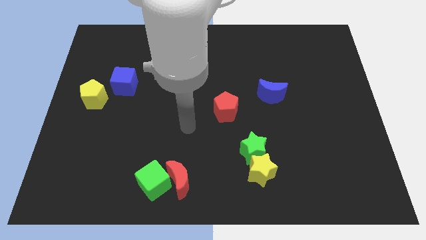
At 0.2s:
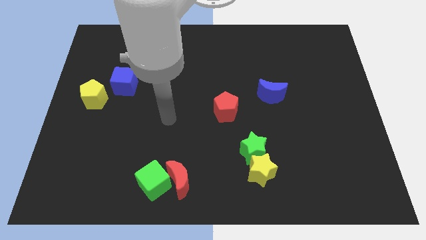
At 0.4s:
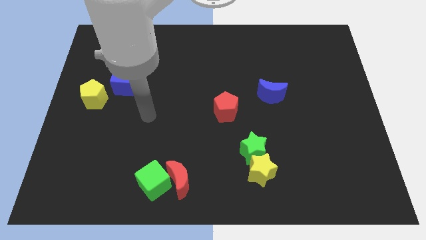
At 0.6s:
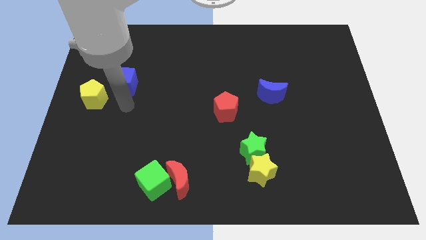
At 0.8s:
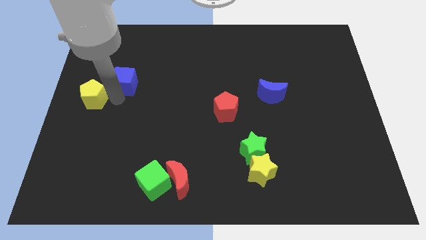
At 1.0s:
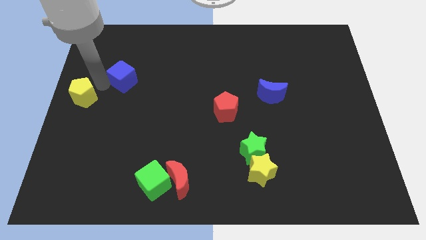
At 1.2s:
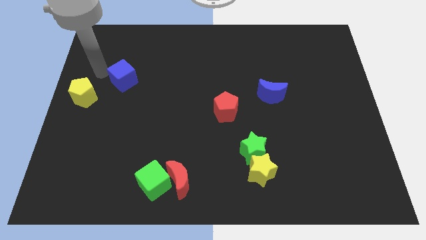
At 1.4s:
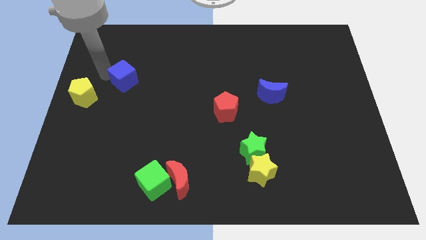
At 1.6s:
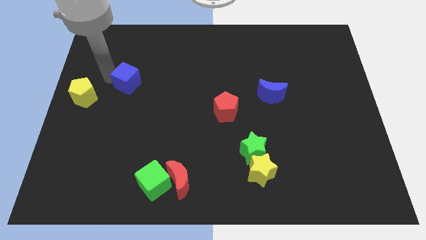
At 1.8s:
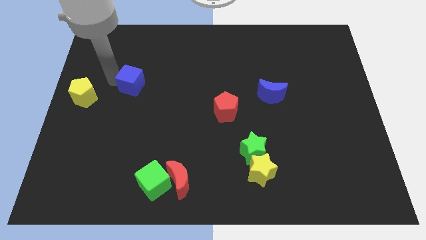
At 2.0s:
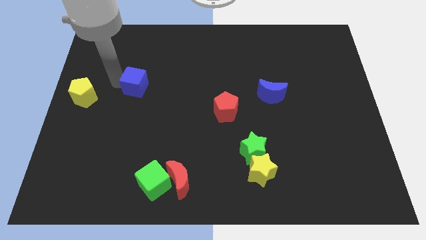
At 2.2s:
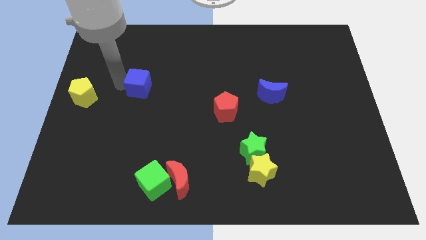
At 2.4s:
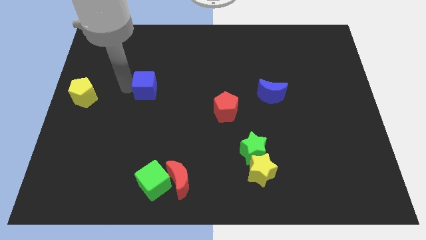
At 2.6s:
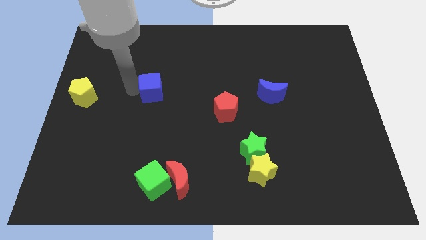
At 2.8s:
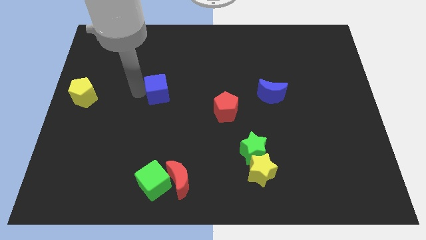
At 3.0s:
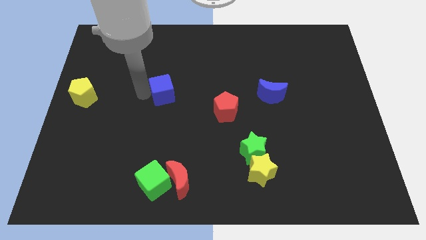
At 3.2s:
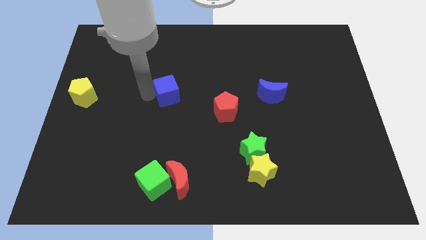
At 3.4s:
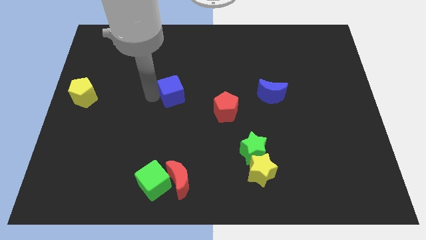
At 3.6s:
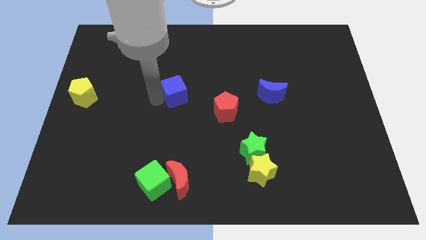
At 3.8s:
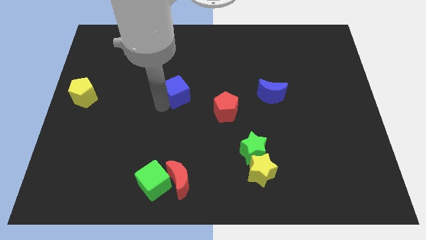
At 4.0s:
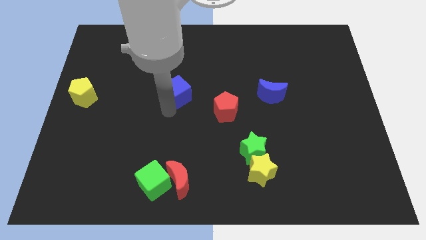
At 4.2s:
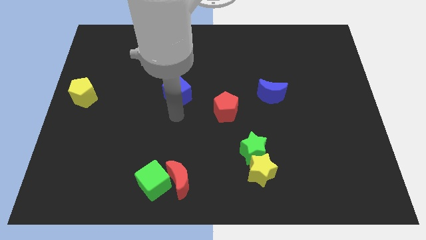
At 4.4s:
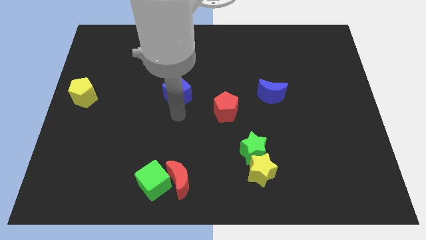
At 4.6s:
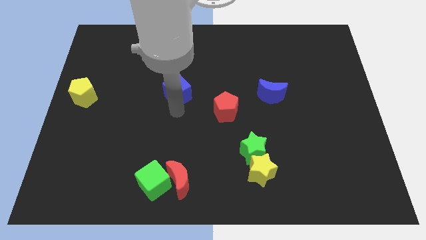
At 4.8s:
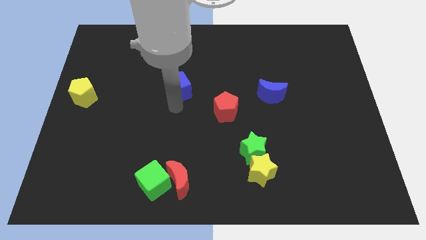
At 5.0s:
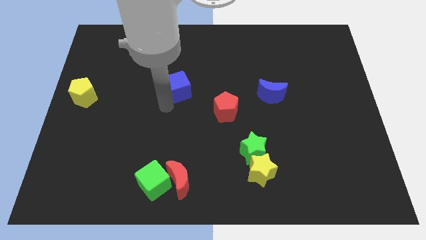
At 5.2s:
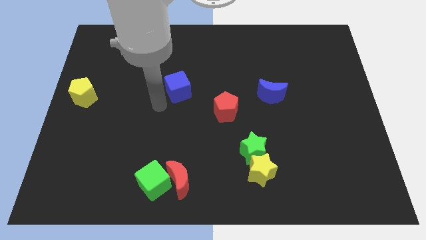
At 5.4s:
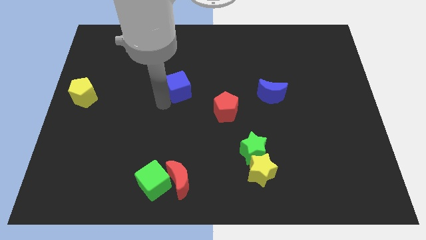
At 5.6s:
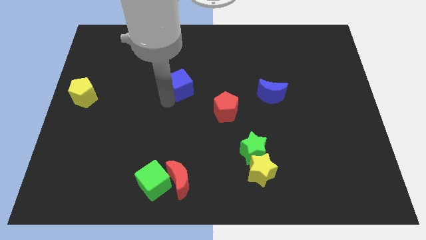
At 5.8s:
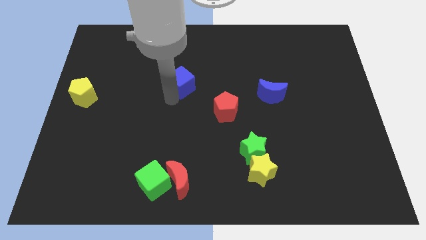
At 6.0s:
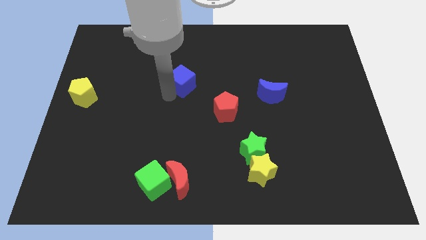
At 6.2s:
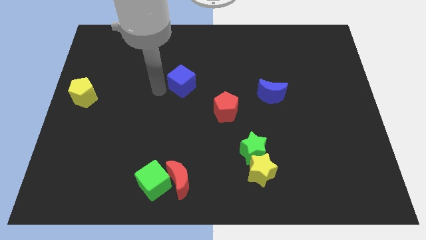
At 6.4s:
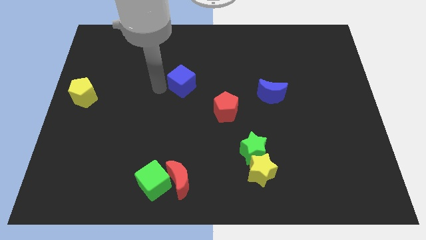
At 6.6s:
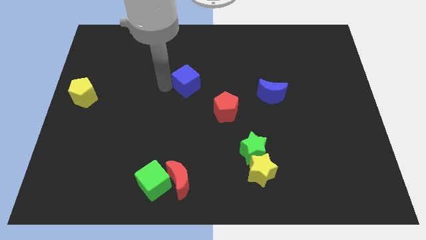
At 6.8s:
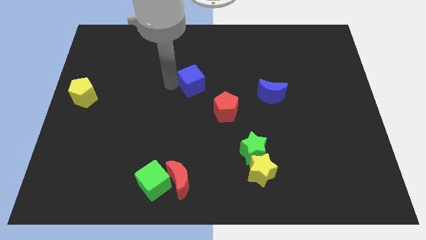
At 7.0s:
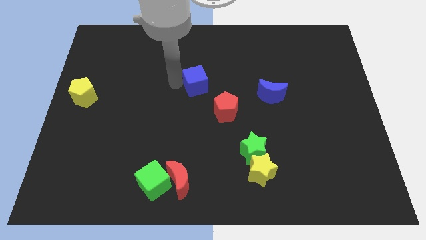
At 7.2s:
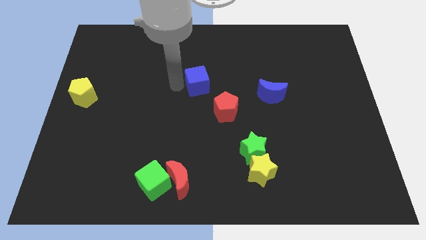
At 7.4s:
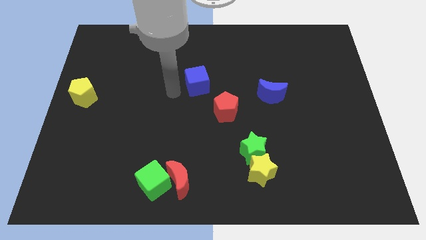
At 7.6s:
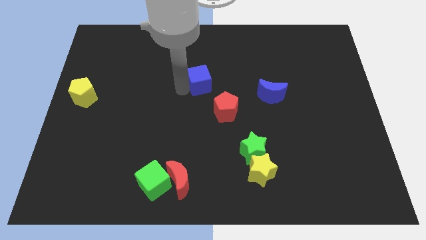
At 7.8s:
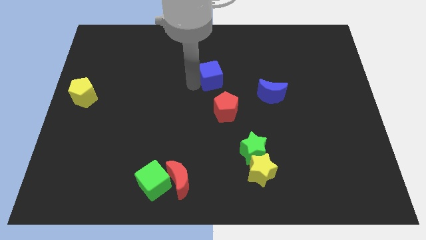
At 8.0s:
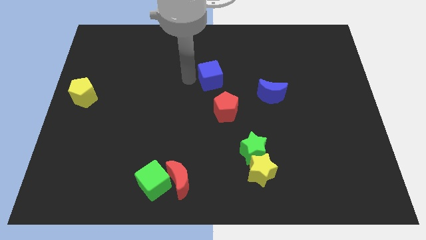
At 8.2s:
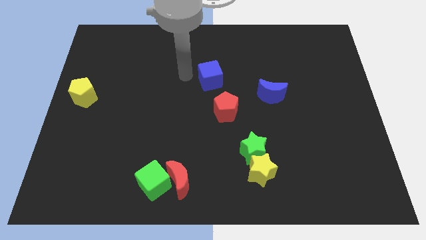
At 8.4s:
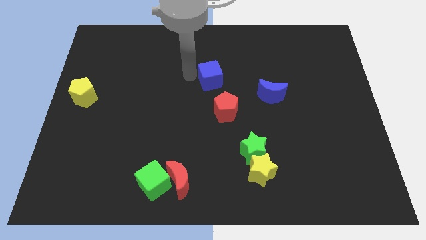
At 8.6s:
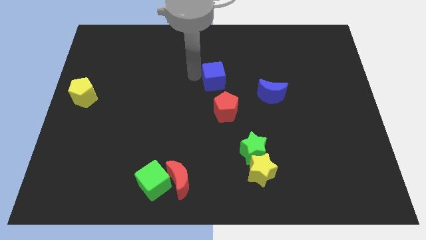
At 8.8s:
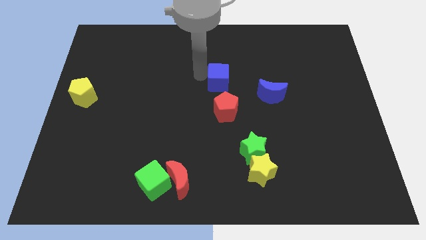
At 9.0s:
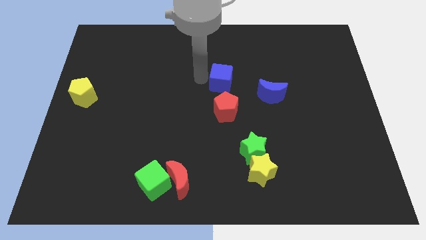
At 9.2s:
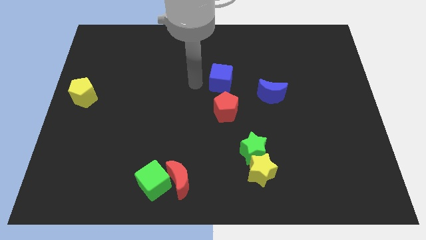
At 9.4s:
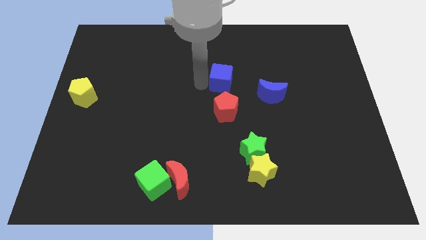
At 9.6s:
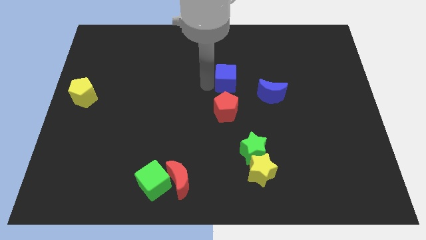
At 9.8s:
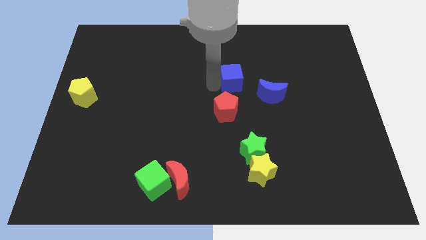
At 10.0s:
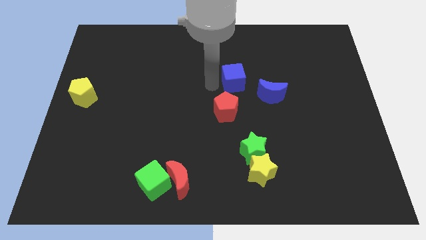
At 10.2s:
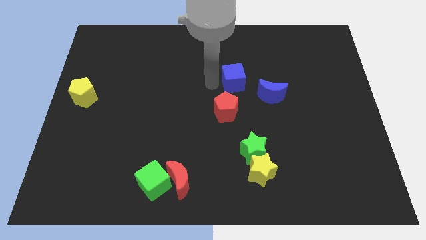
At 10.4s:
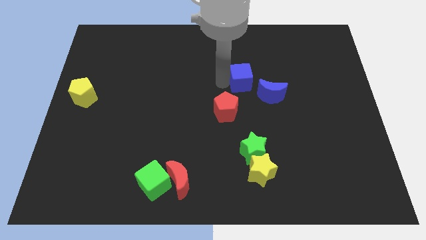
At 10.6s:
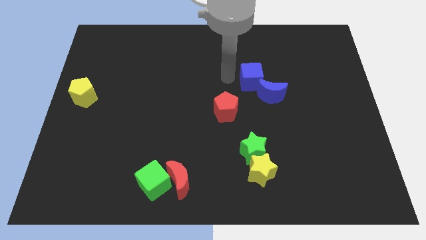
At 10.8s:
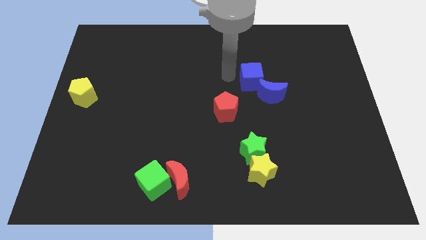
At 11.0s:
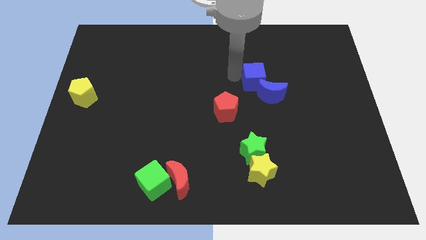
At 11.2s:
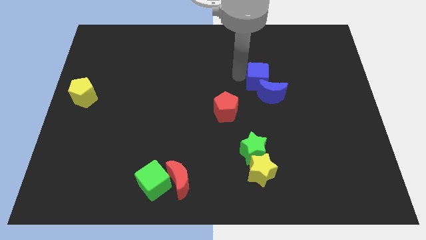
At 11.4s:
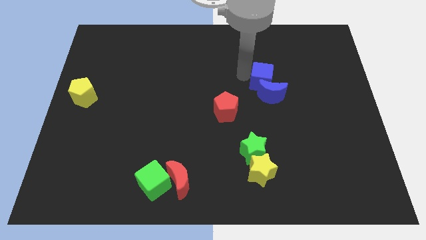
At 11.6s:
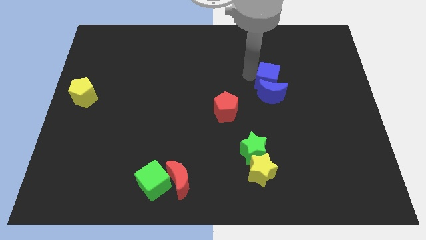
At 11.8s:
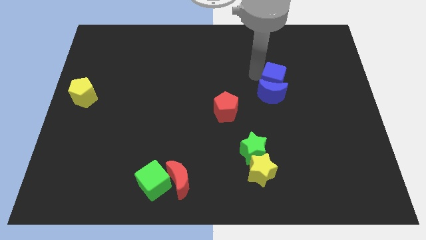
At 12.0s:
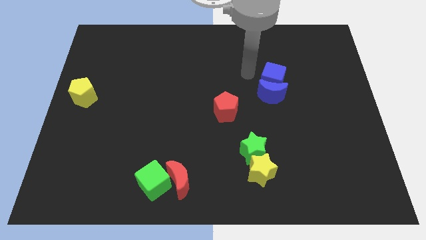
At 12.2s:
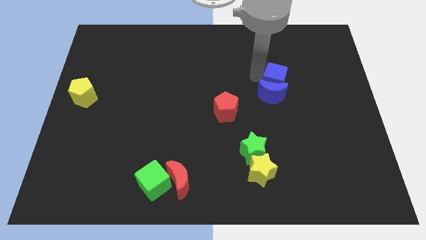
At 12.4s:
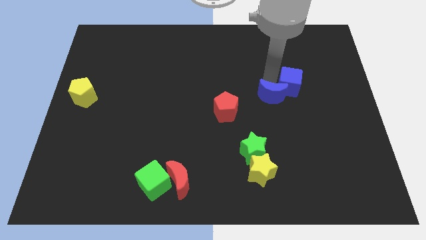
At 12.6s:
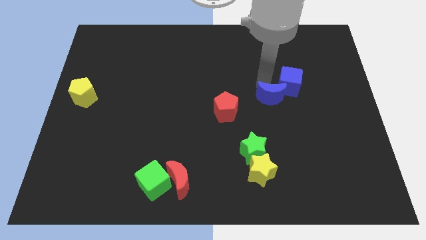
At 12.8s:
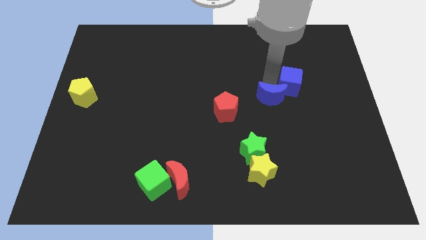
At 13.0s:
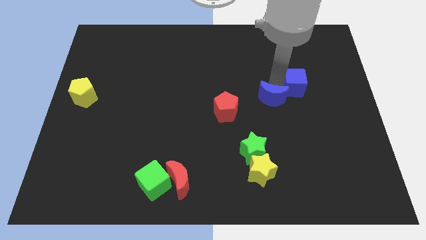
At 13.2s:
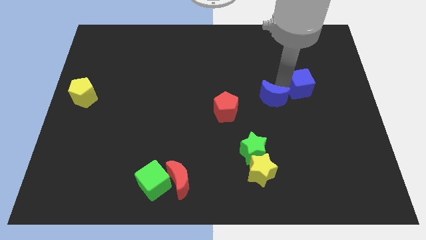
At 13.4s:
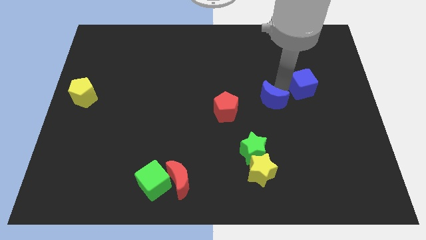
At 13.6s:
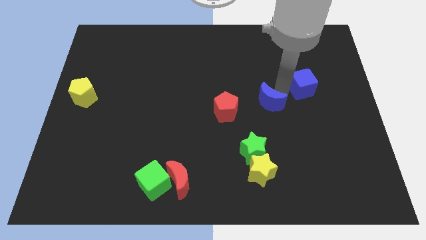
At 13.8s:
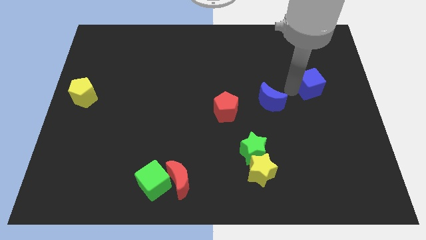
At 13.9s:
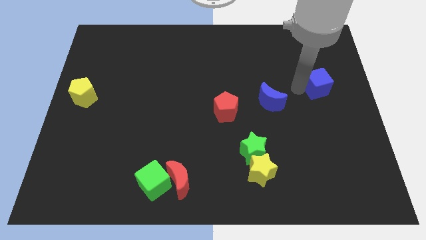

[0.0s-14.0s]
push the blue cube to the right side

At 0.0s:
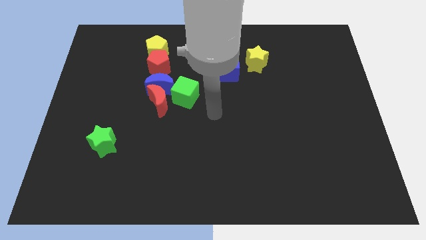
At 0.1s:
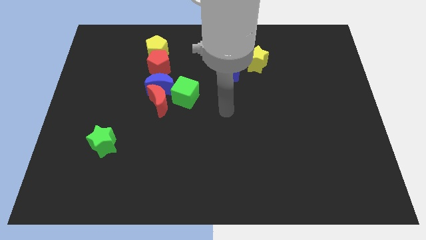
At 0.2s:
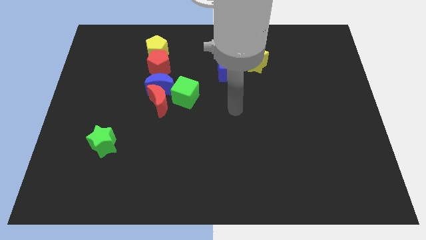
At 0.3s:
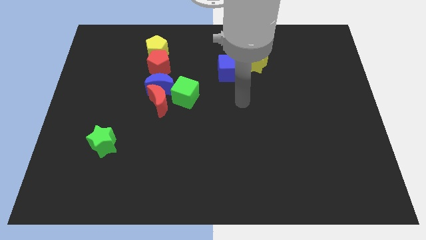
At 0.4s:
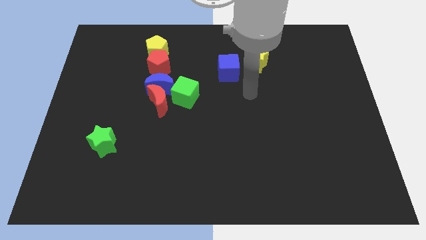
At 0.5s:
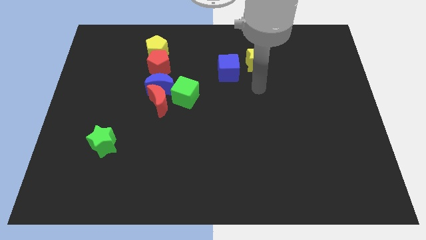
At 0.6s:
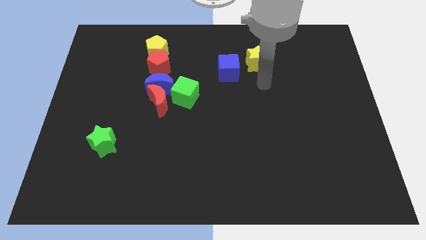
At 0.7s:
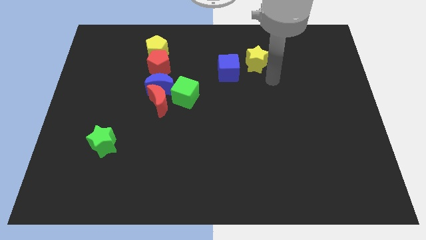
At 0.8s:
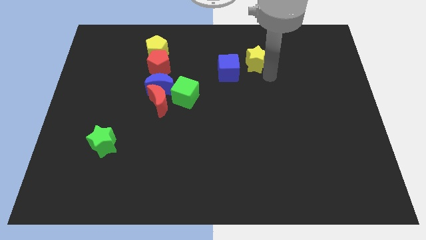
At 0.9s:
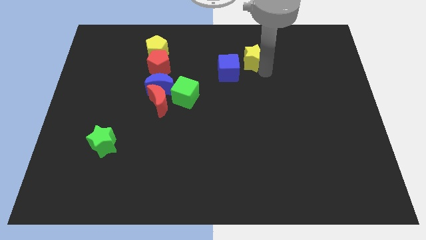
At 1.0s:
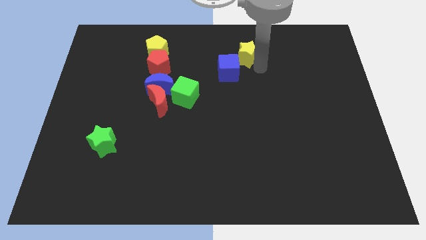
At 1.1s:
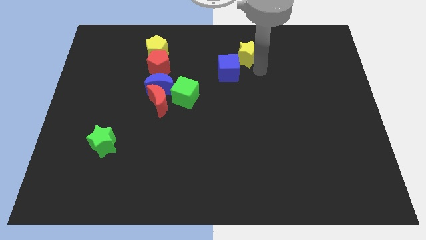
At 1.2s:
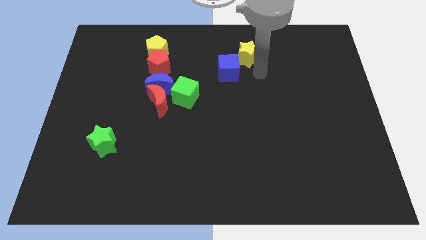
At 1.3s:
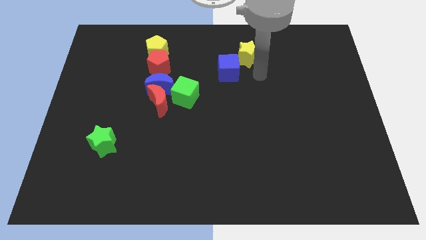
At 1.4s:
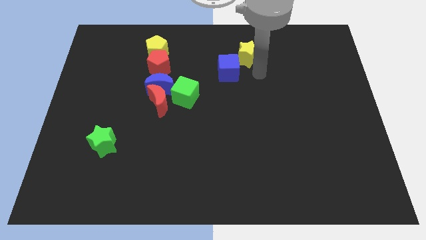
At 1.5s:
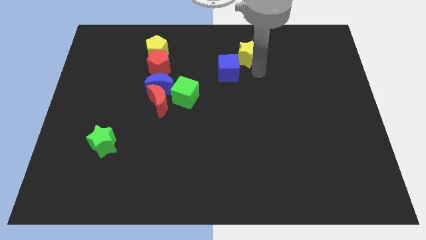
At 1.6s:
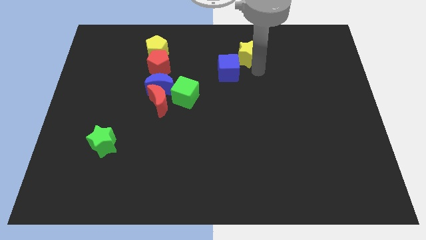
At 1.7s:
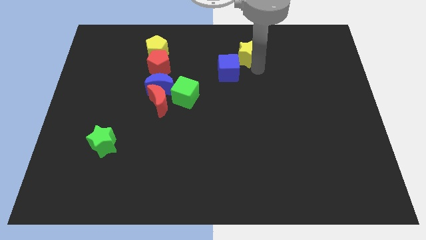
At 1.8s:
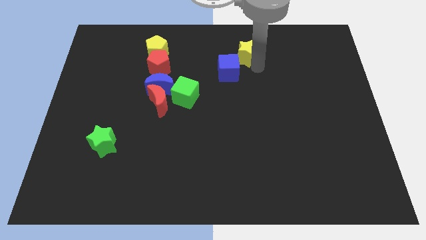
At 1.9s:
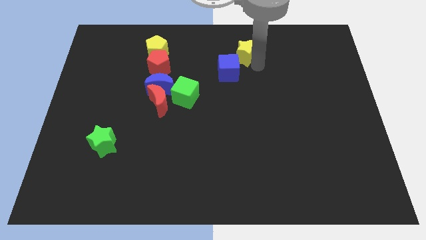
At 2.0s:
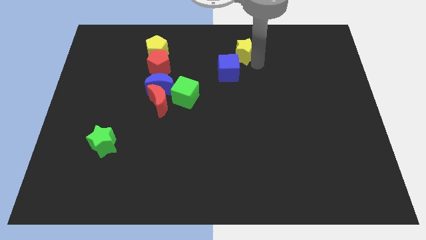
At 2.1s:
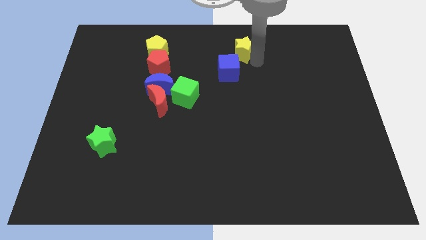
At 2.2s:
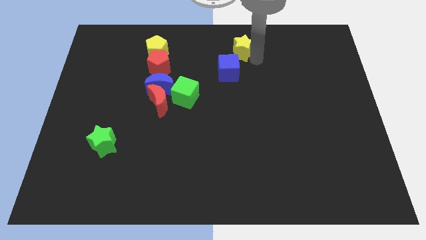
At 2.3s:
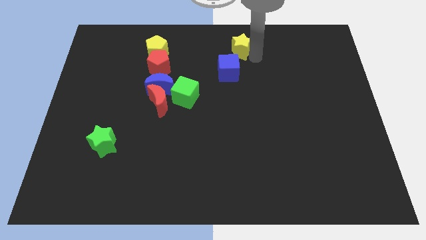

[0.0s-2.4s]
put the yellow star to the top
